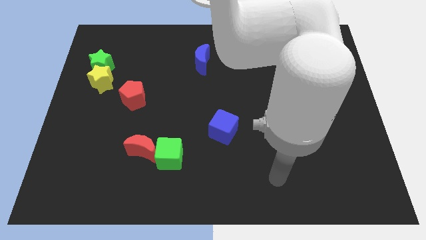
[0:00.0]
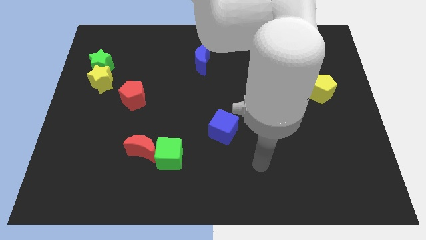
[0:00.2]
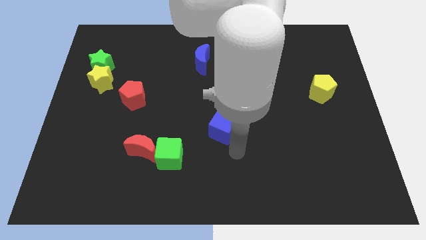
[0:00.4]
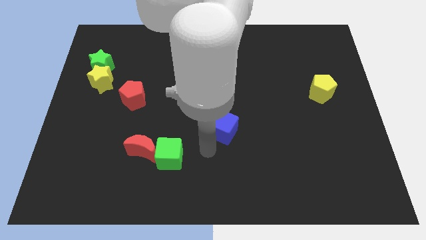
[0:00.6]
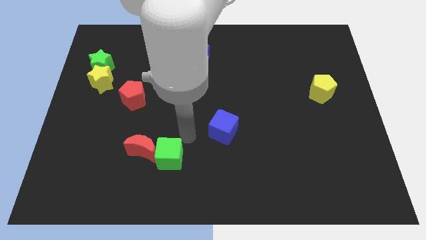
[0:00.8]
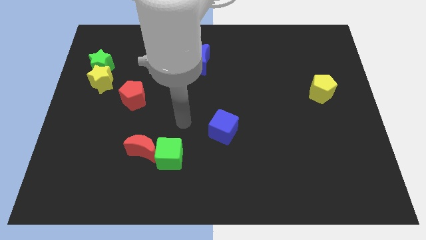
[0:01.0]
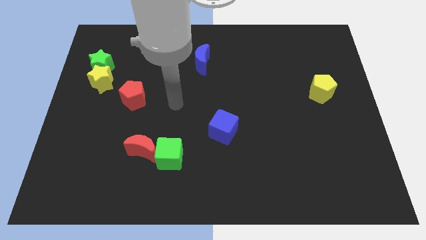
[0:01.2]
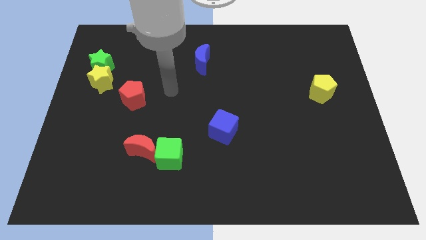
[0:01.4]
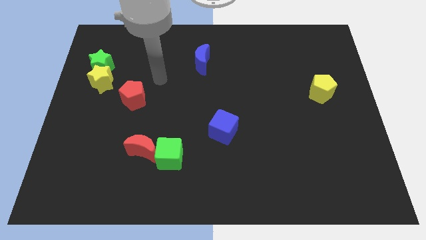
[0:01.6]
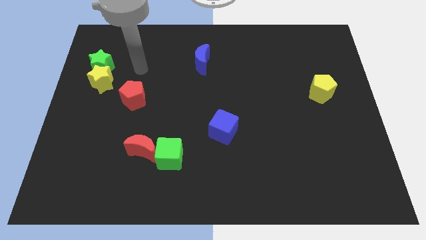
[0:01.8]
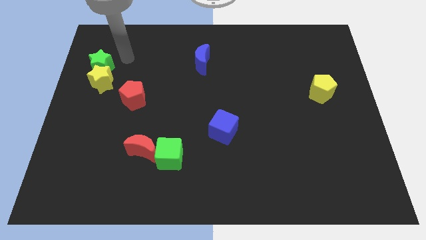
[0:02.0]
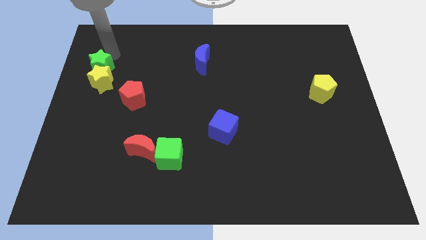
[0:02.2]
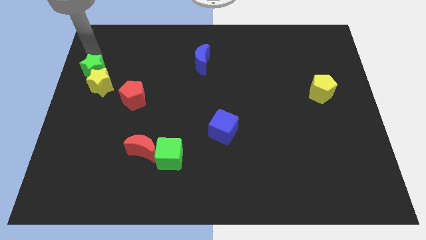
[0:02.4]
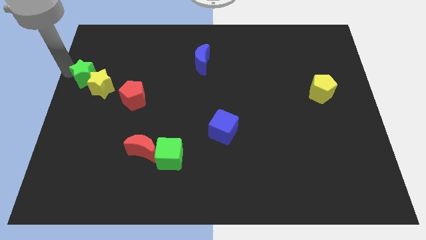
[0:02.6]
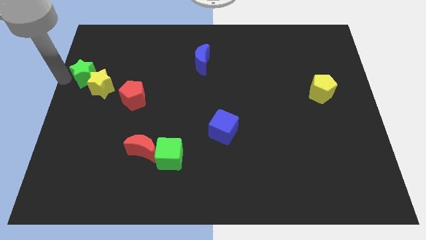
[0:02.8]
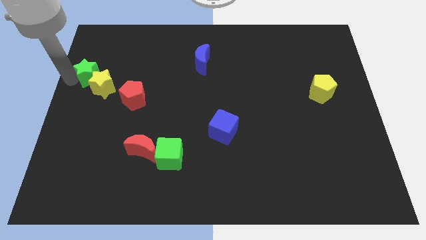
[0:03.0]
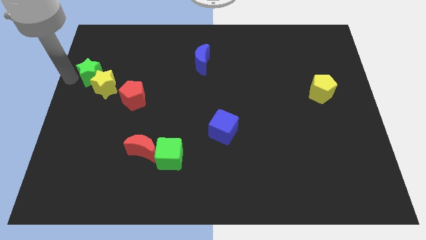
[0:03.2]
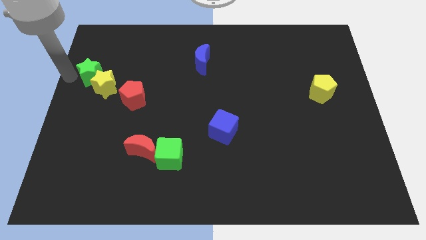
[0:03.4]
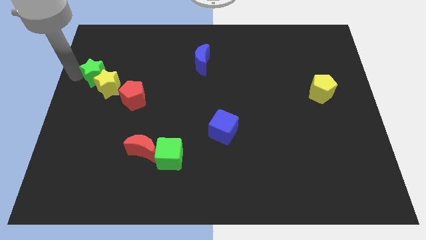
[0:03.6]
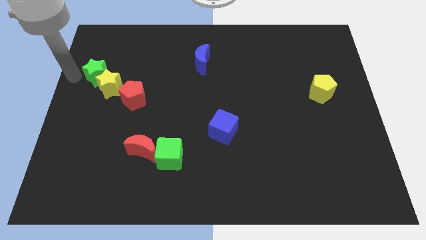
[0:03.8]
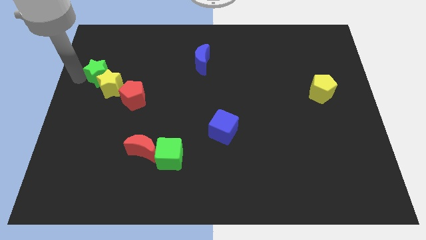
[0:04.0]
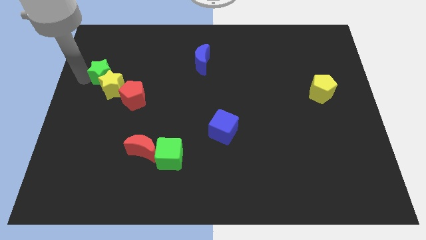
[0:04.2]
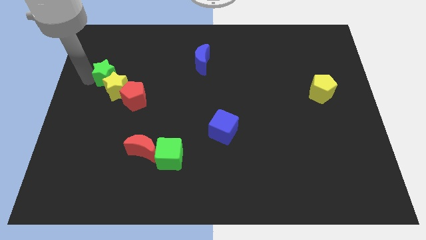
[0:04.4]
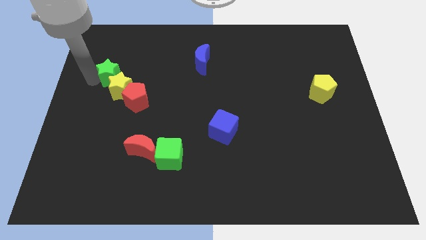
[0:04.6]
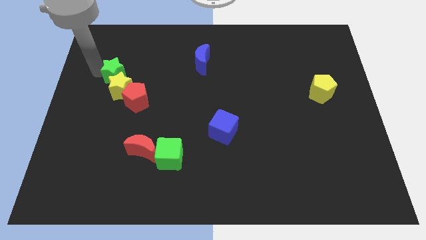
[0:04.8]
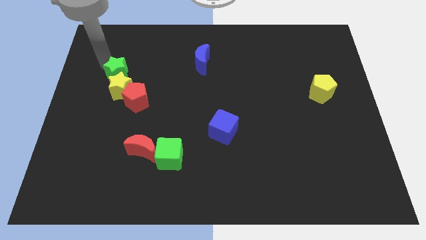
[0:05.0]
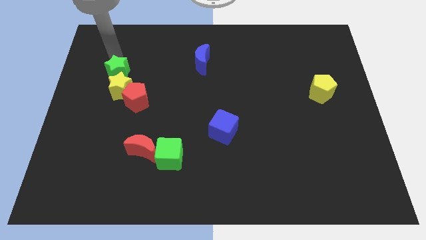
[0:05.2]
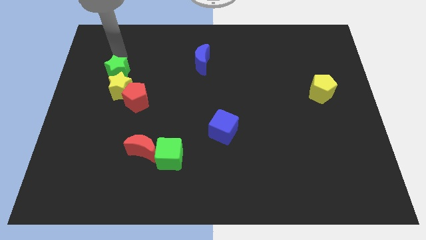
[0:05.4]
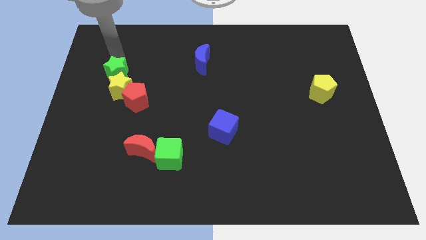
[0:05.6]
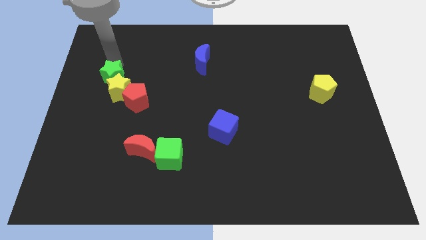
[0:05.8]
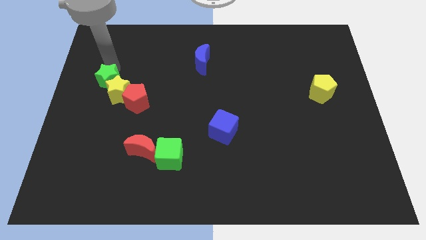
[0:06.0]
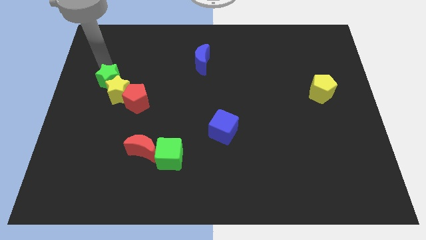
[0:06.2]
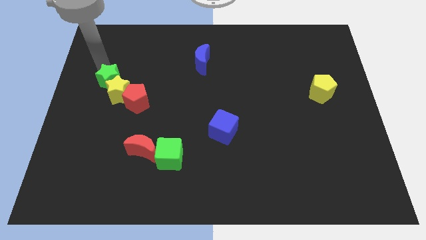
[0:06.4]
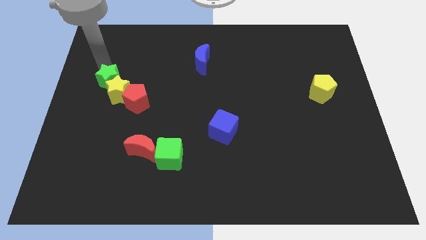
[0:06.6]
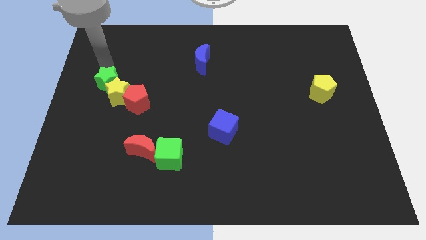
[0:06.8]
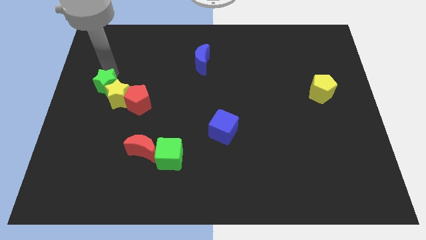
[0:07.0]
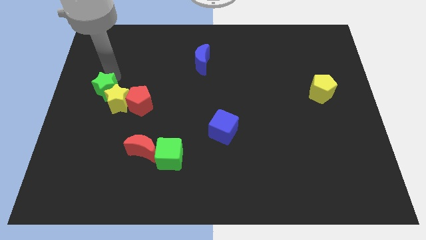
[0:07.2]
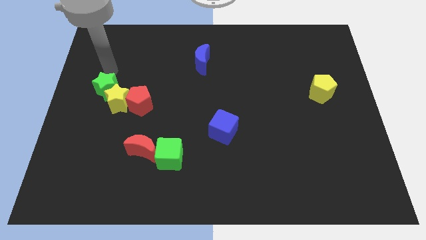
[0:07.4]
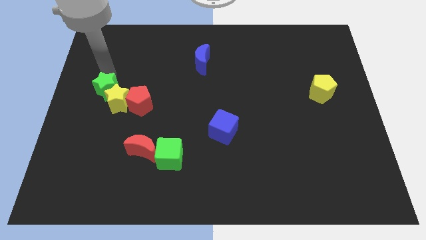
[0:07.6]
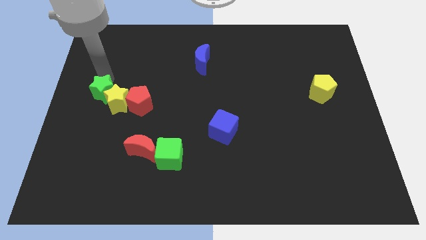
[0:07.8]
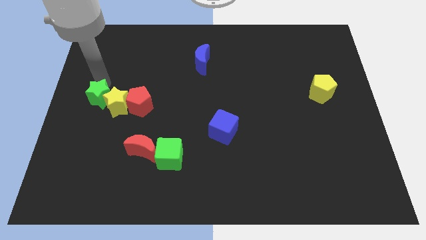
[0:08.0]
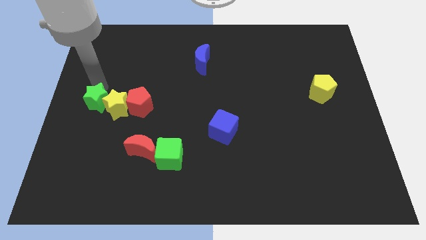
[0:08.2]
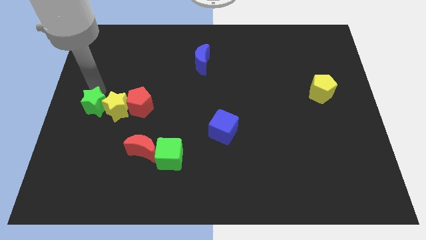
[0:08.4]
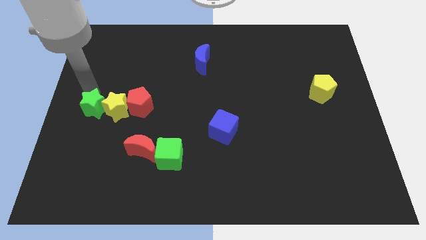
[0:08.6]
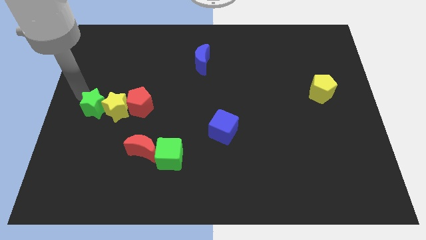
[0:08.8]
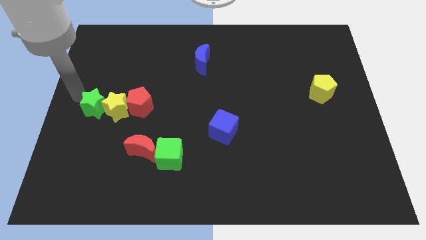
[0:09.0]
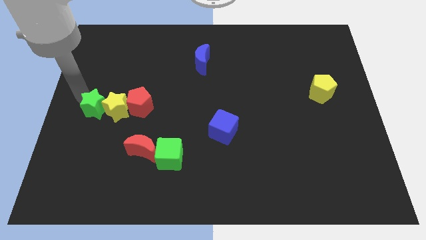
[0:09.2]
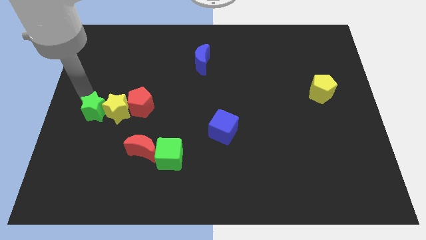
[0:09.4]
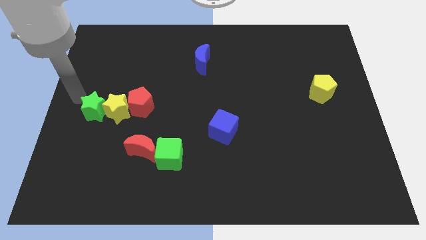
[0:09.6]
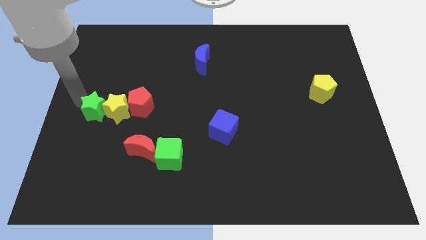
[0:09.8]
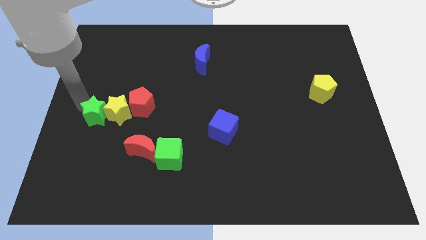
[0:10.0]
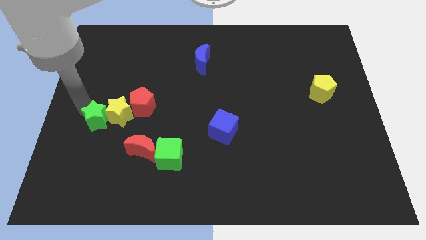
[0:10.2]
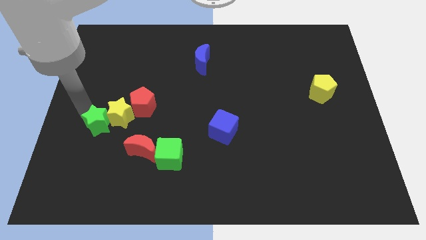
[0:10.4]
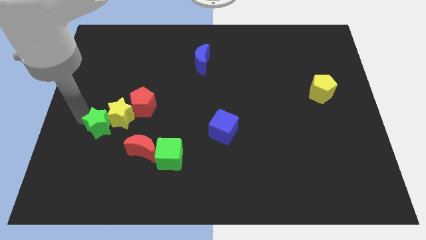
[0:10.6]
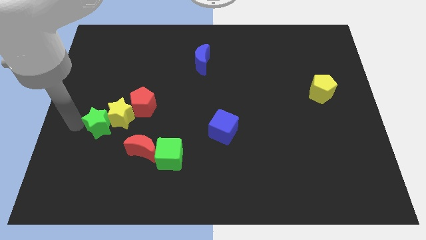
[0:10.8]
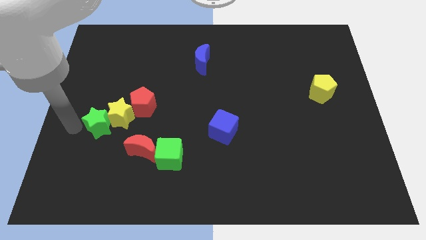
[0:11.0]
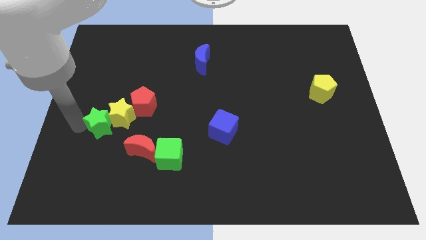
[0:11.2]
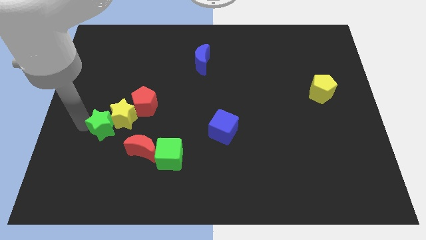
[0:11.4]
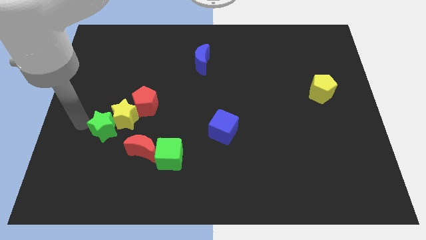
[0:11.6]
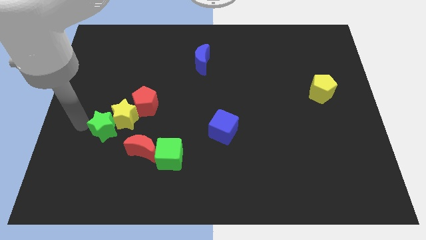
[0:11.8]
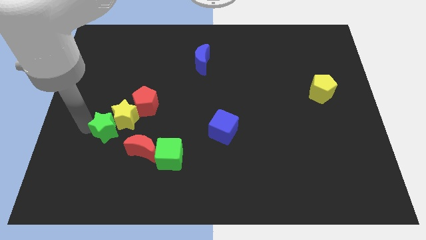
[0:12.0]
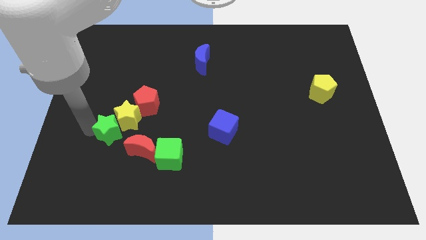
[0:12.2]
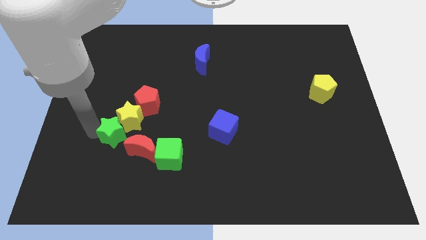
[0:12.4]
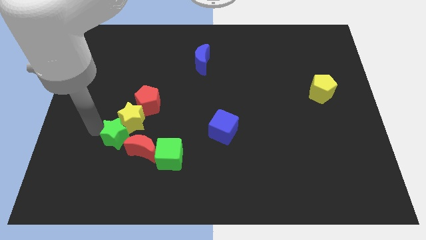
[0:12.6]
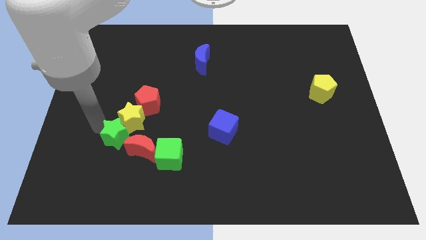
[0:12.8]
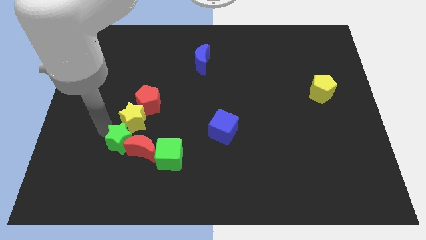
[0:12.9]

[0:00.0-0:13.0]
push the green star towards the red moon

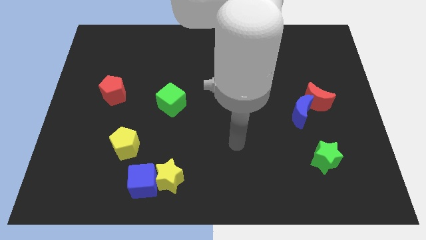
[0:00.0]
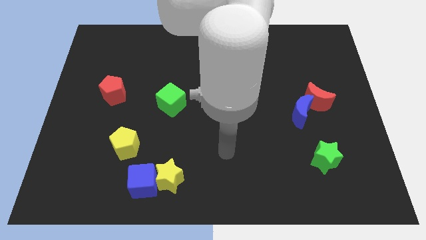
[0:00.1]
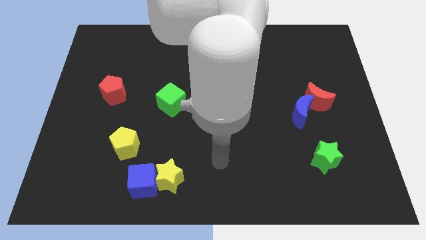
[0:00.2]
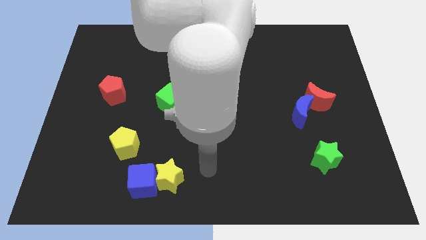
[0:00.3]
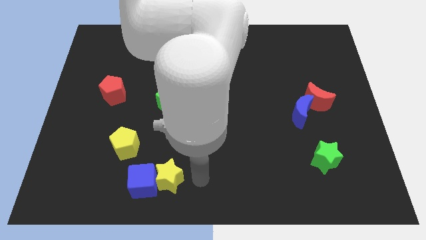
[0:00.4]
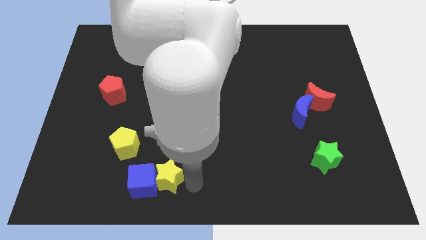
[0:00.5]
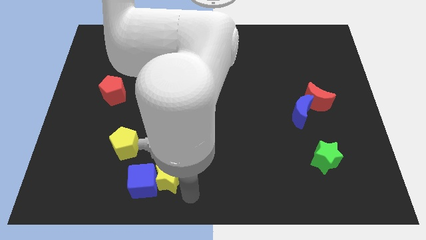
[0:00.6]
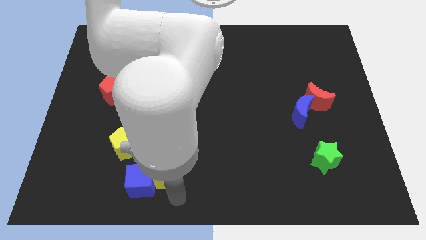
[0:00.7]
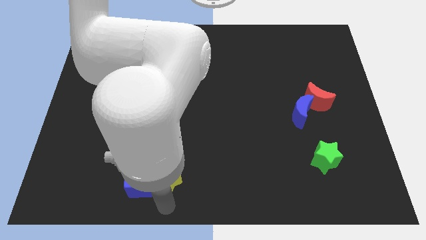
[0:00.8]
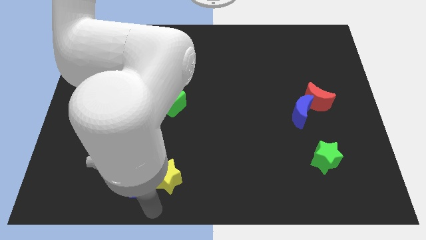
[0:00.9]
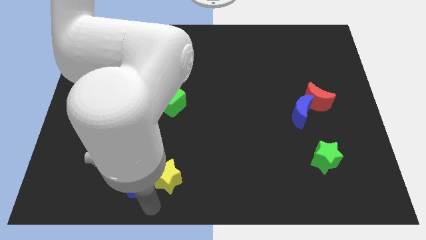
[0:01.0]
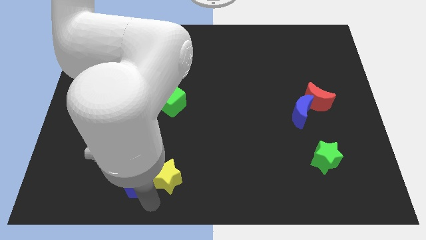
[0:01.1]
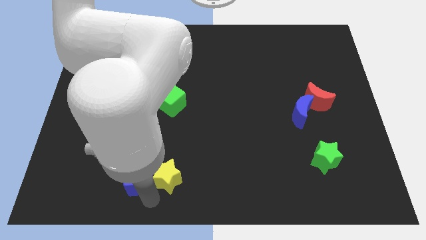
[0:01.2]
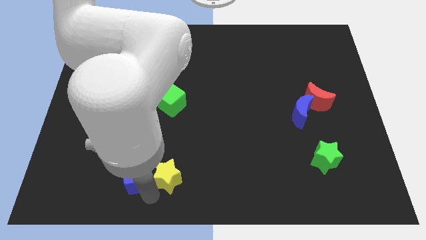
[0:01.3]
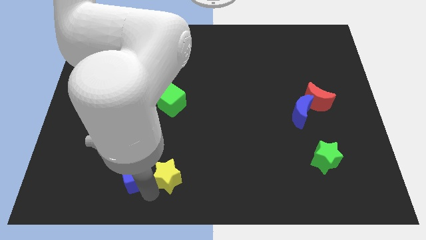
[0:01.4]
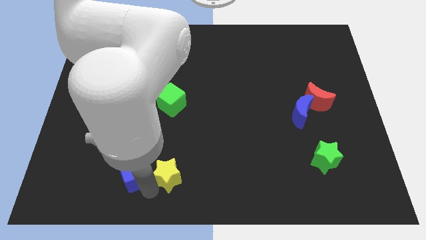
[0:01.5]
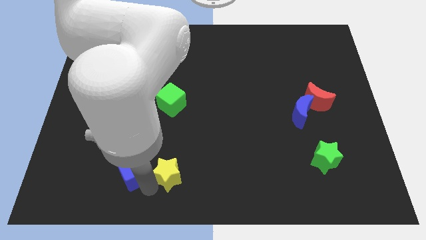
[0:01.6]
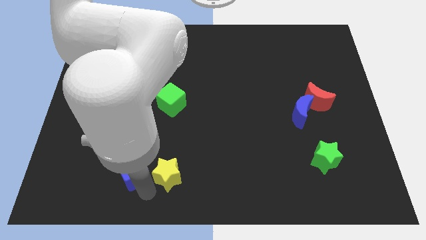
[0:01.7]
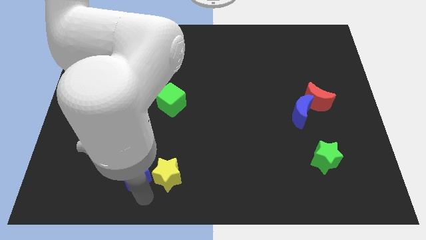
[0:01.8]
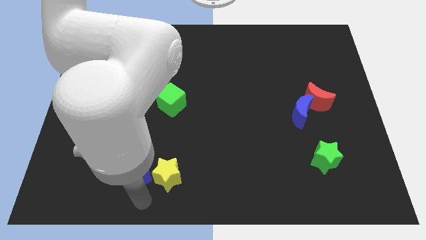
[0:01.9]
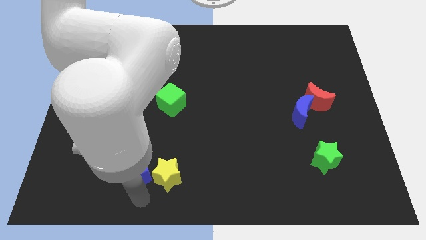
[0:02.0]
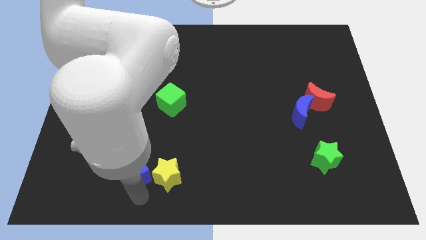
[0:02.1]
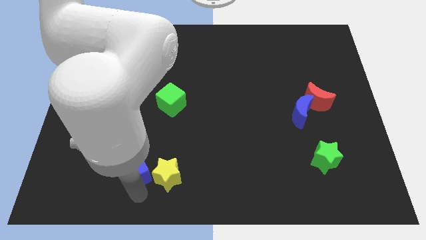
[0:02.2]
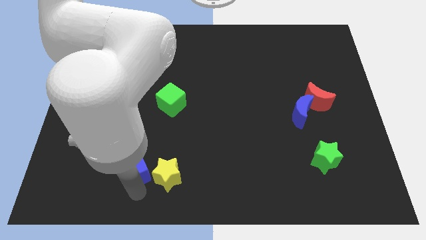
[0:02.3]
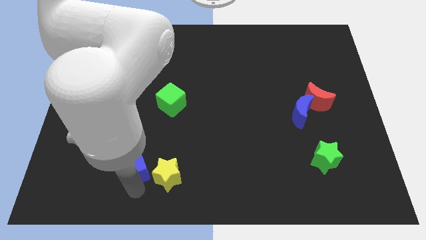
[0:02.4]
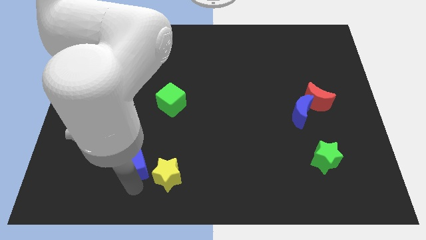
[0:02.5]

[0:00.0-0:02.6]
slide the blue cube to the yellow pentagon
